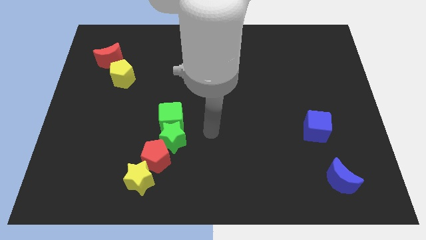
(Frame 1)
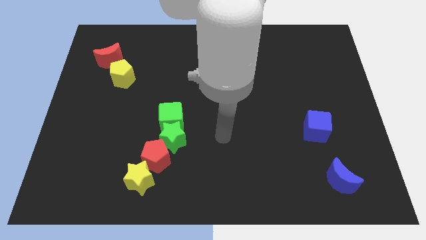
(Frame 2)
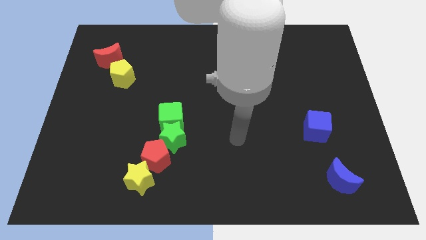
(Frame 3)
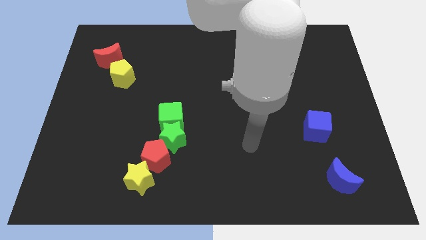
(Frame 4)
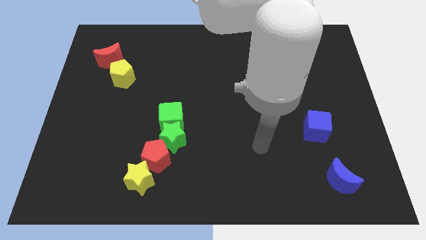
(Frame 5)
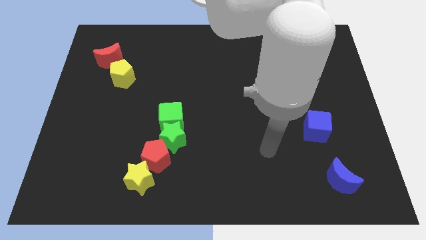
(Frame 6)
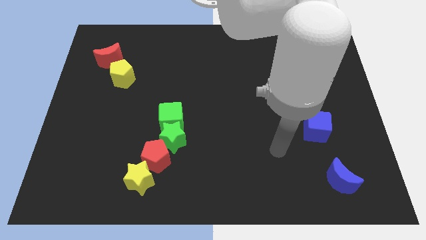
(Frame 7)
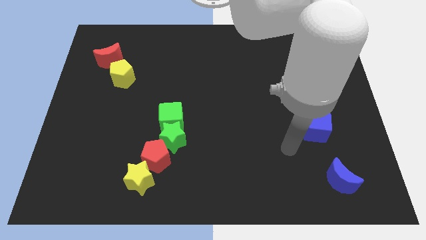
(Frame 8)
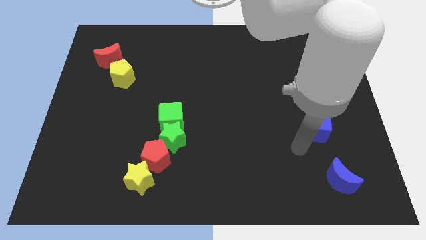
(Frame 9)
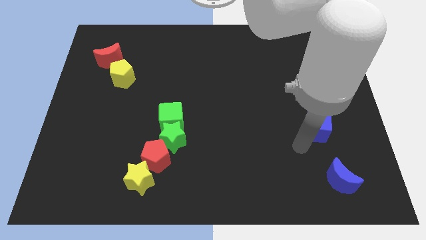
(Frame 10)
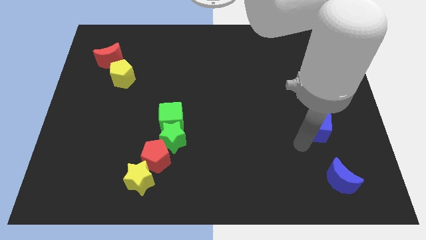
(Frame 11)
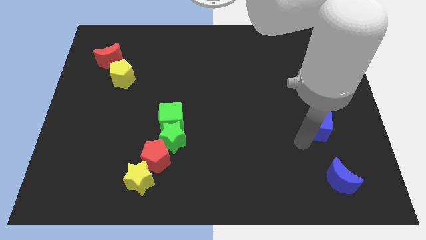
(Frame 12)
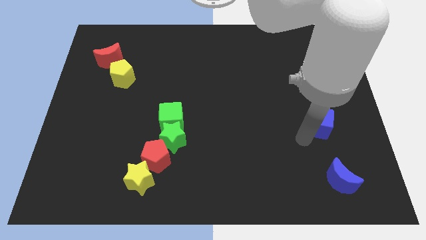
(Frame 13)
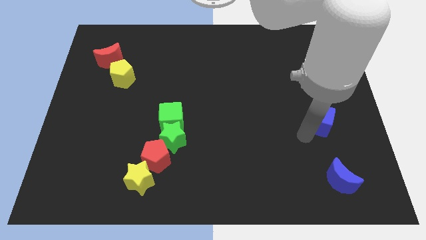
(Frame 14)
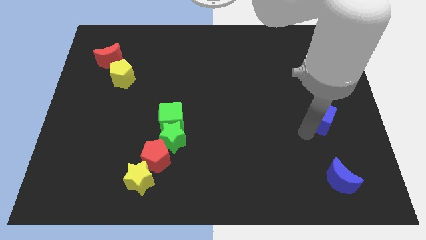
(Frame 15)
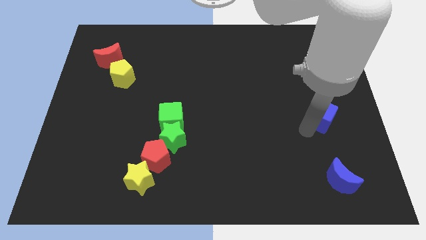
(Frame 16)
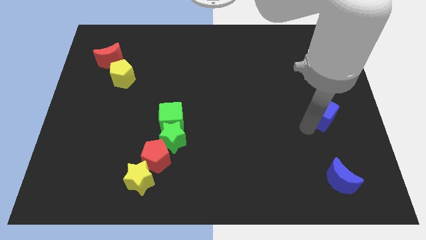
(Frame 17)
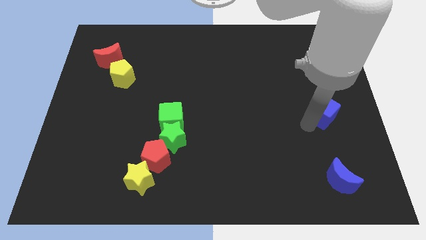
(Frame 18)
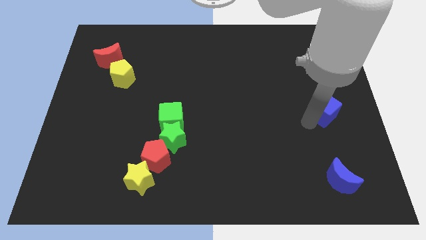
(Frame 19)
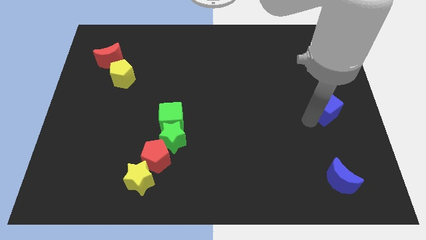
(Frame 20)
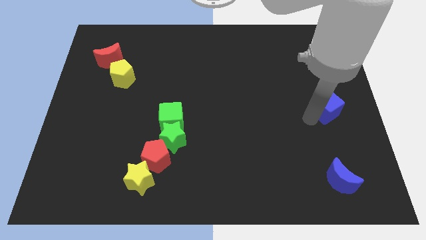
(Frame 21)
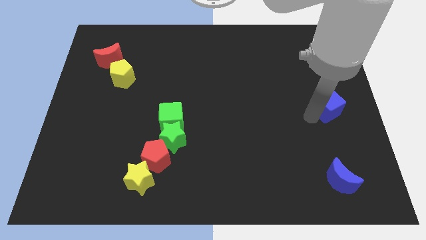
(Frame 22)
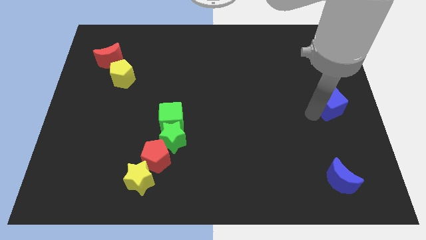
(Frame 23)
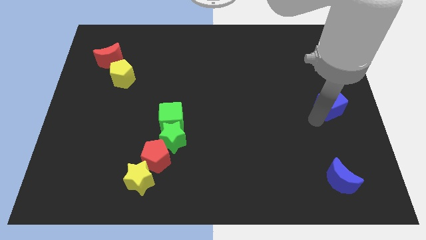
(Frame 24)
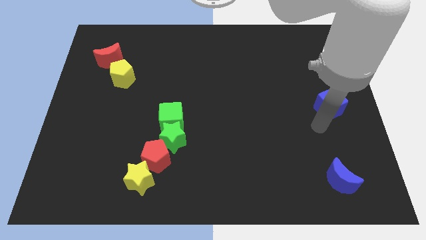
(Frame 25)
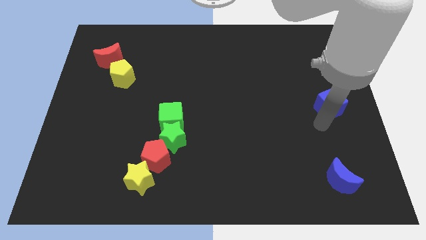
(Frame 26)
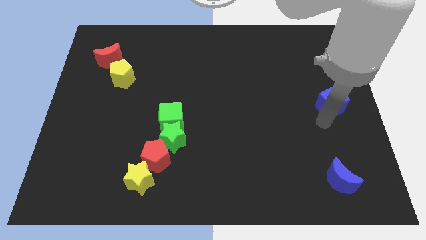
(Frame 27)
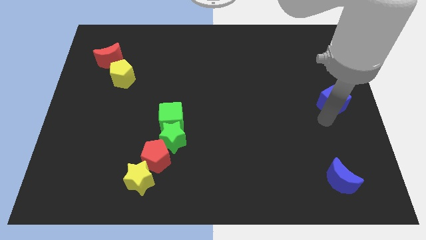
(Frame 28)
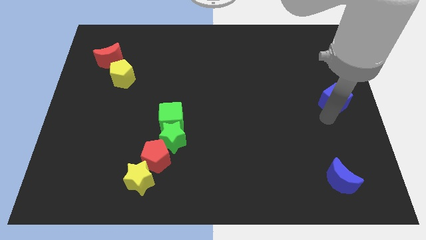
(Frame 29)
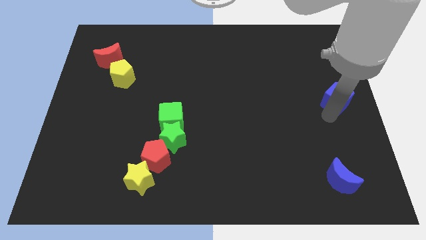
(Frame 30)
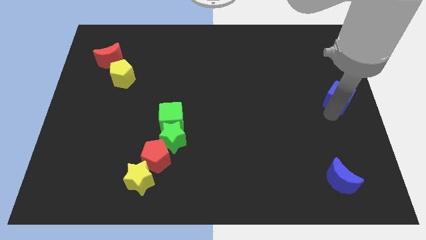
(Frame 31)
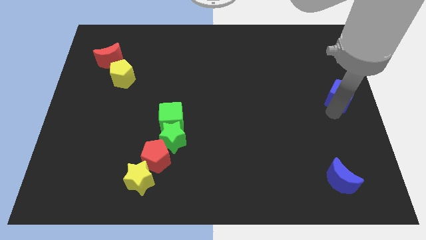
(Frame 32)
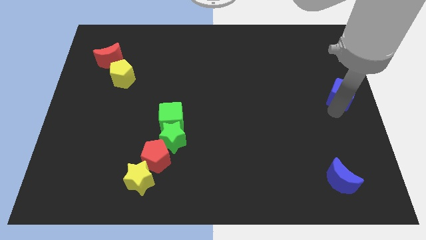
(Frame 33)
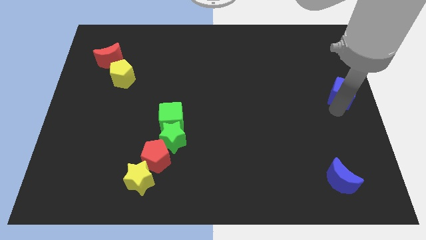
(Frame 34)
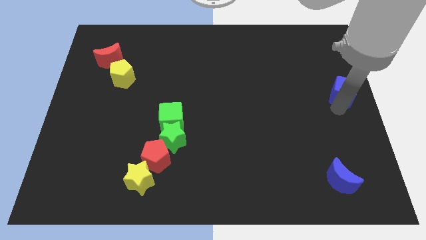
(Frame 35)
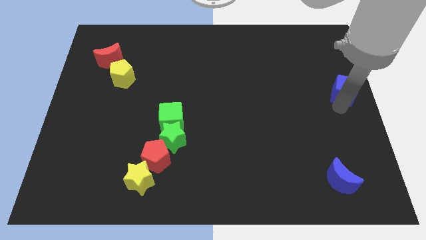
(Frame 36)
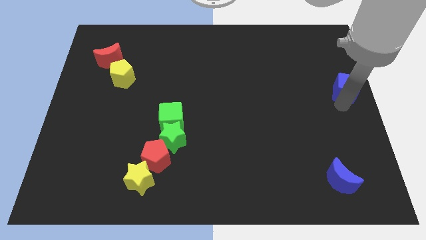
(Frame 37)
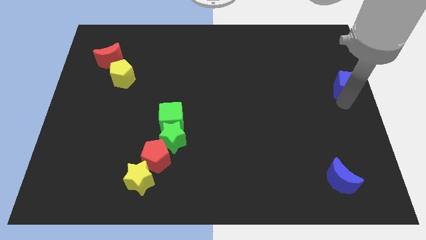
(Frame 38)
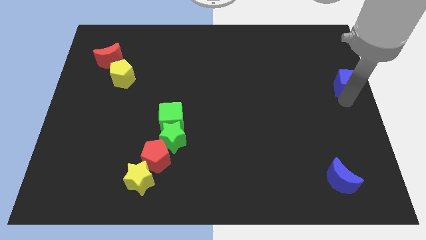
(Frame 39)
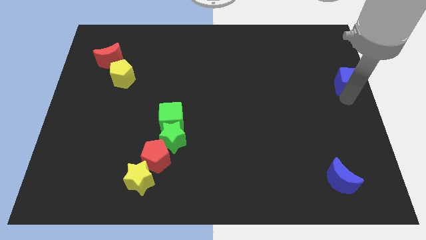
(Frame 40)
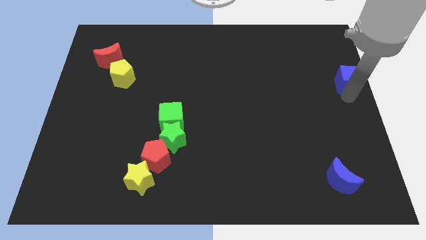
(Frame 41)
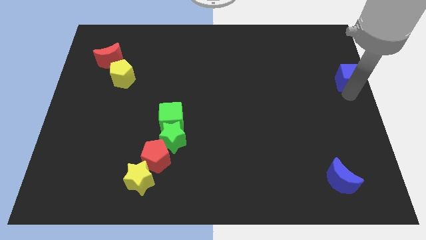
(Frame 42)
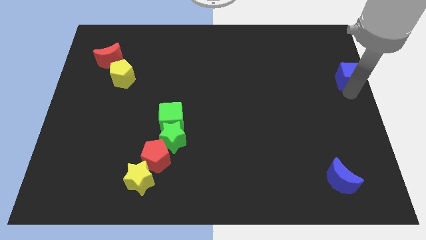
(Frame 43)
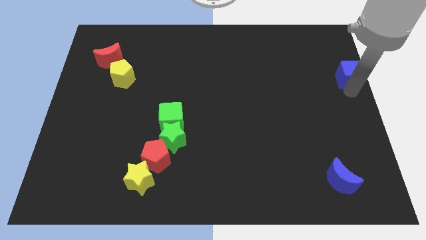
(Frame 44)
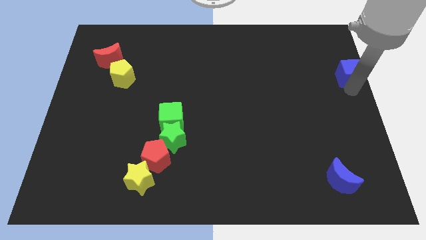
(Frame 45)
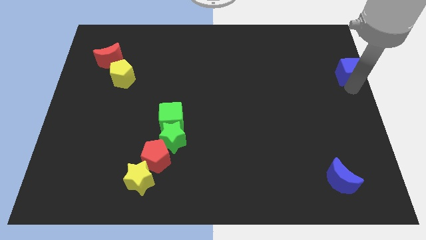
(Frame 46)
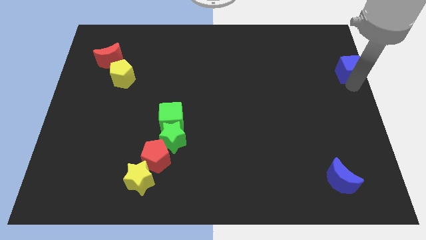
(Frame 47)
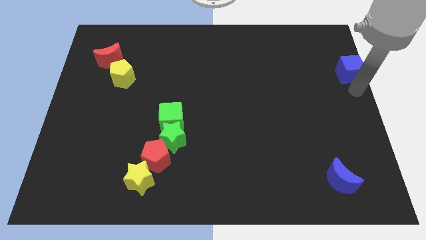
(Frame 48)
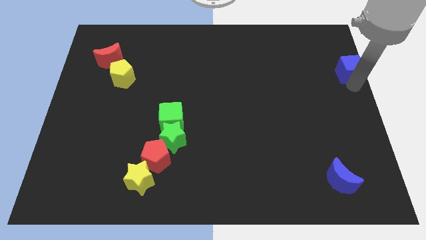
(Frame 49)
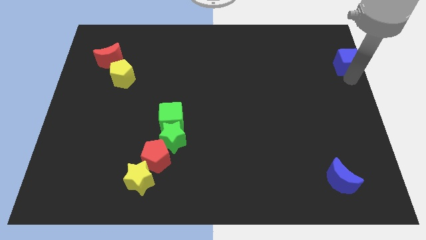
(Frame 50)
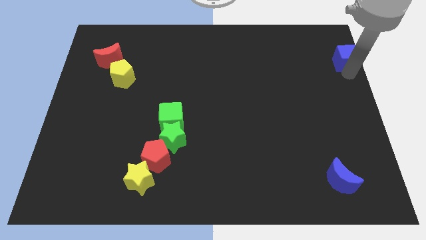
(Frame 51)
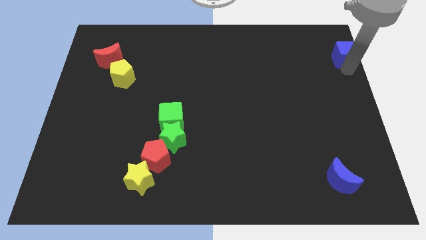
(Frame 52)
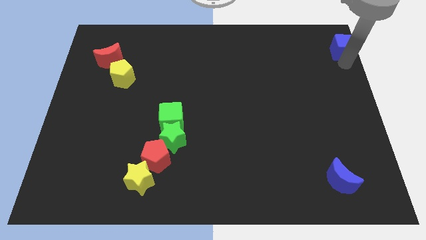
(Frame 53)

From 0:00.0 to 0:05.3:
put the blue cube to the upper right corner

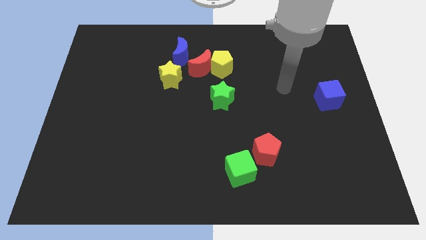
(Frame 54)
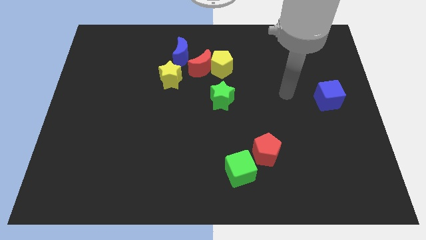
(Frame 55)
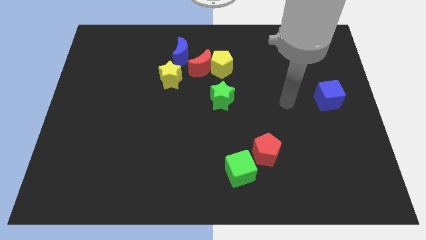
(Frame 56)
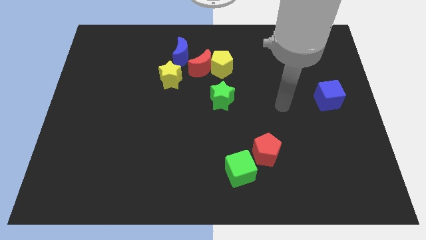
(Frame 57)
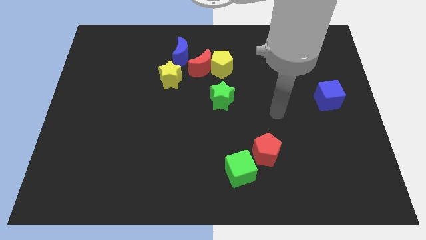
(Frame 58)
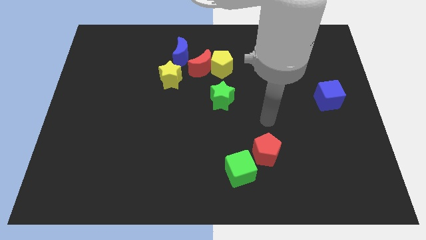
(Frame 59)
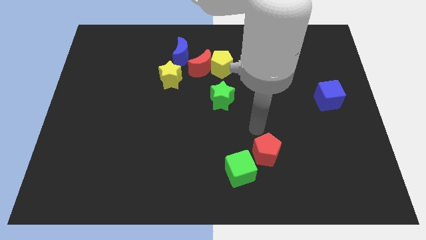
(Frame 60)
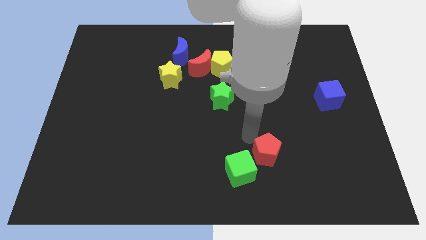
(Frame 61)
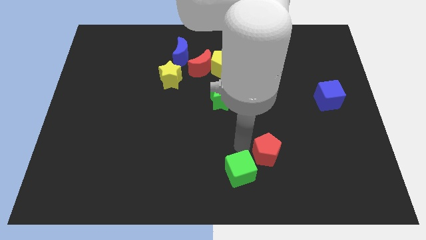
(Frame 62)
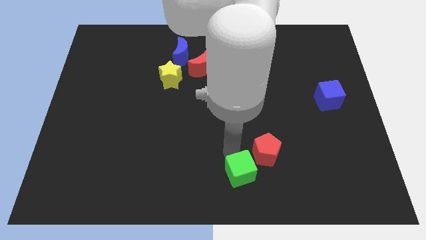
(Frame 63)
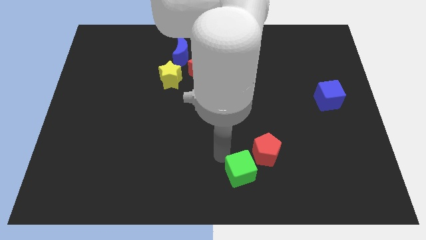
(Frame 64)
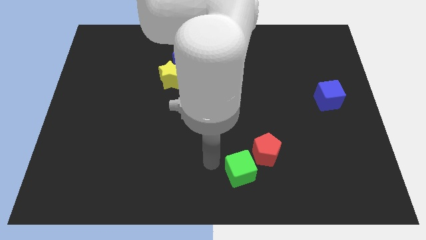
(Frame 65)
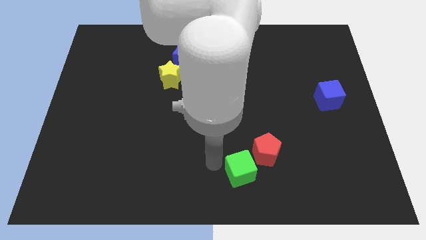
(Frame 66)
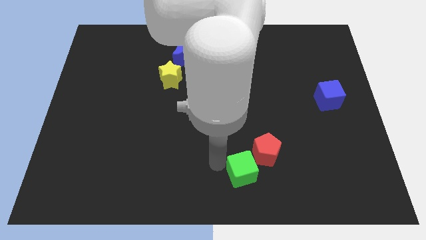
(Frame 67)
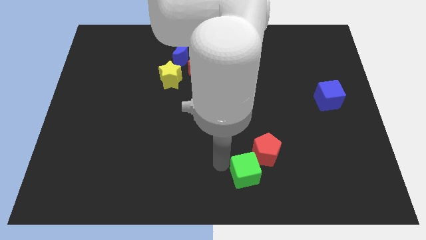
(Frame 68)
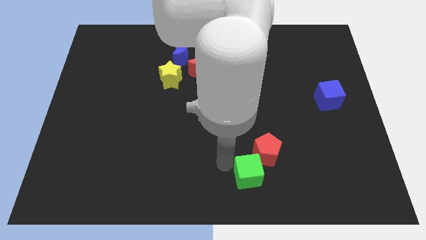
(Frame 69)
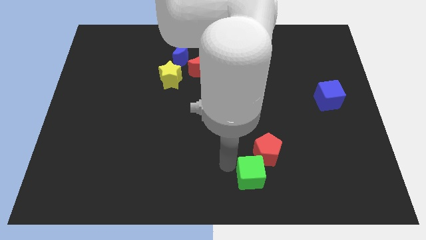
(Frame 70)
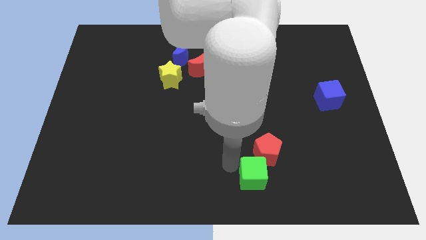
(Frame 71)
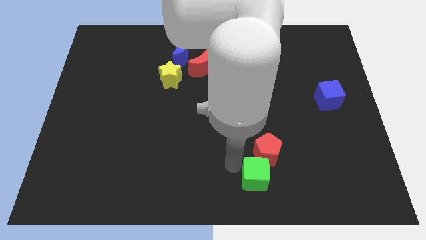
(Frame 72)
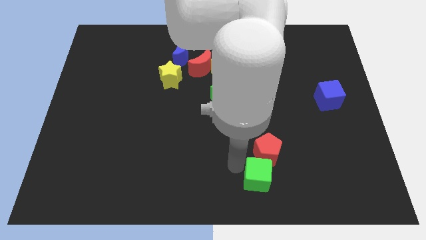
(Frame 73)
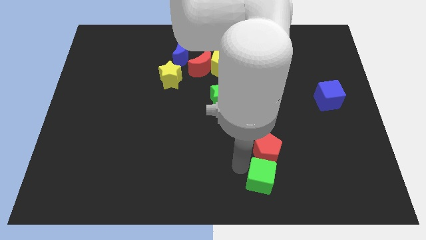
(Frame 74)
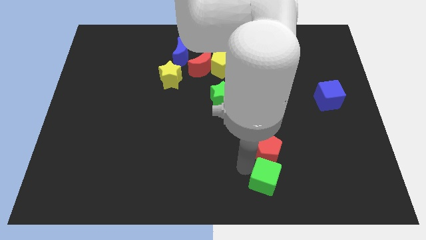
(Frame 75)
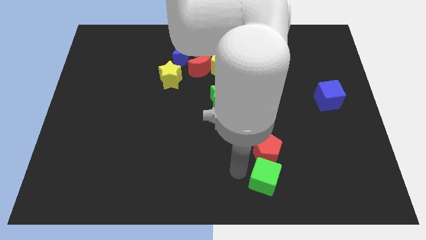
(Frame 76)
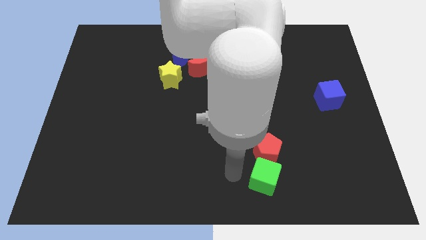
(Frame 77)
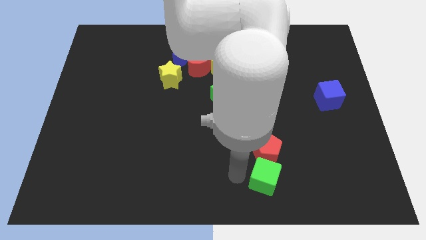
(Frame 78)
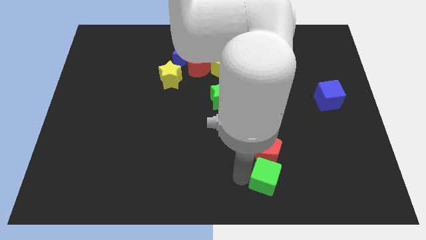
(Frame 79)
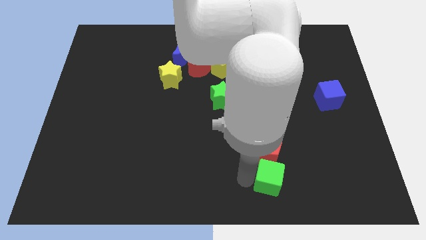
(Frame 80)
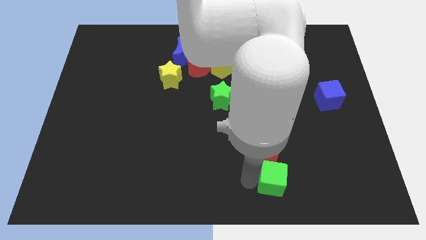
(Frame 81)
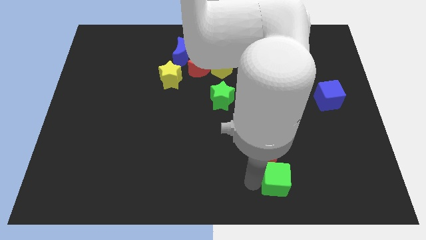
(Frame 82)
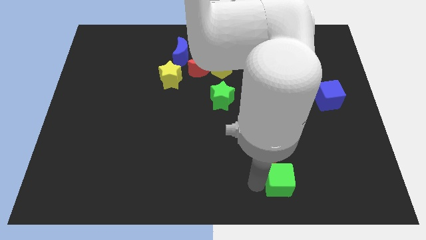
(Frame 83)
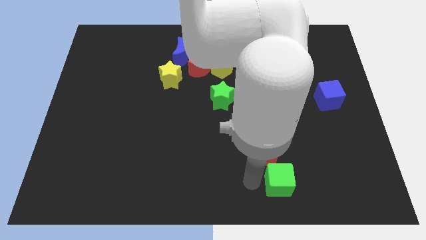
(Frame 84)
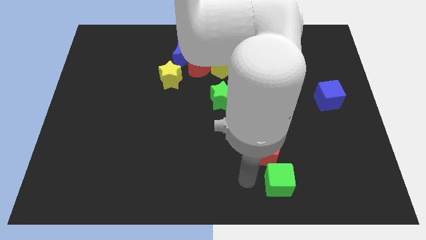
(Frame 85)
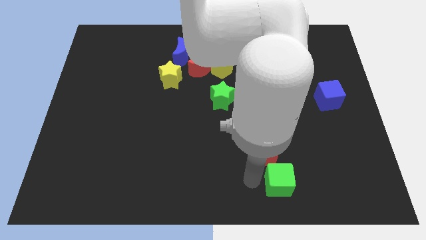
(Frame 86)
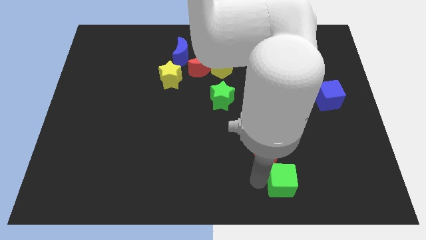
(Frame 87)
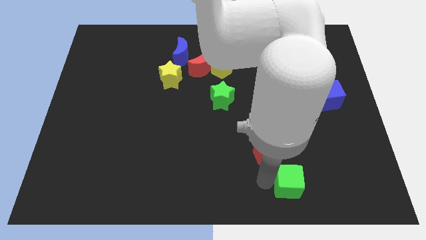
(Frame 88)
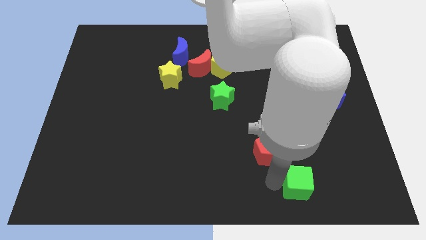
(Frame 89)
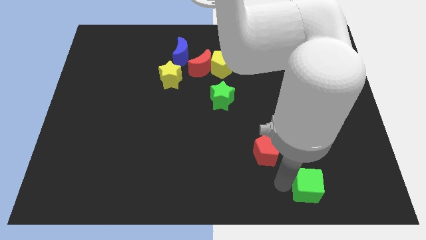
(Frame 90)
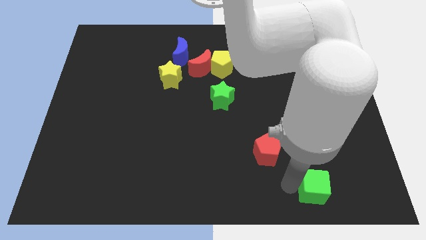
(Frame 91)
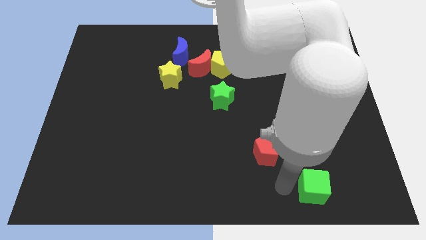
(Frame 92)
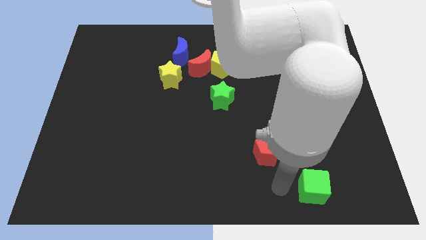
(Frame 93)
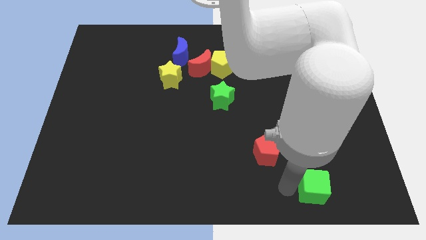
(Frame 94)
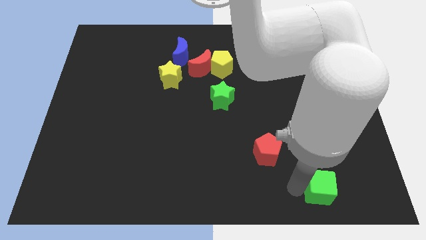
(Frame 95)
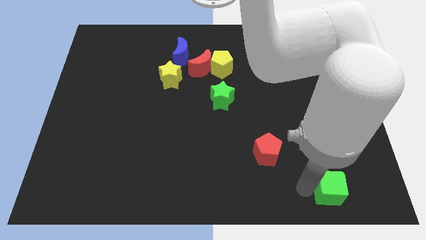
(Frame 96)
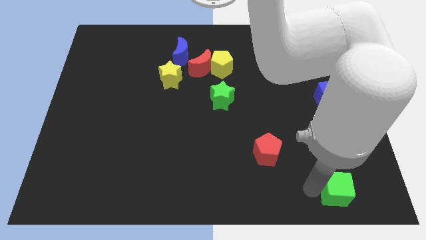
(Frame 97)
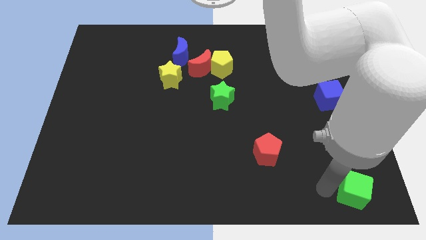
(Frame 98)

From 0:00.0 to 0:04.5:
slide the green cube to the lower right corner
